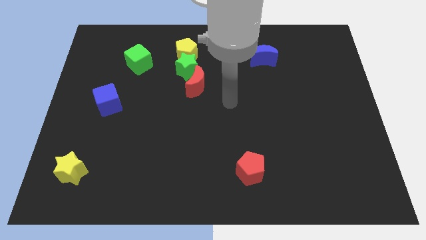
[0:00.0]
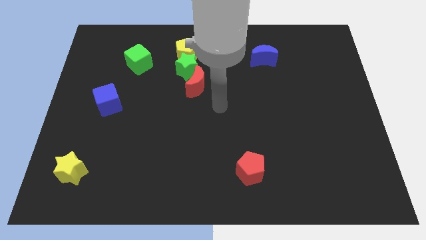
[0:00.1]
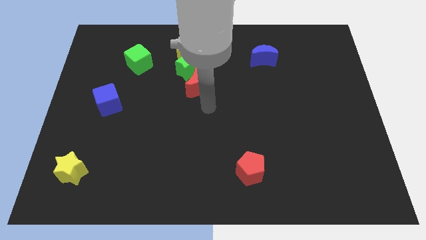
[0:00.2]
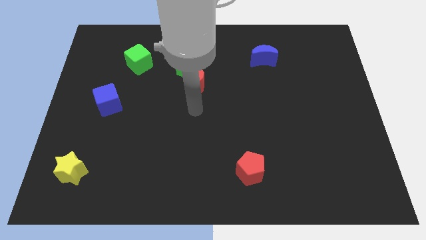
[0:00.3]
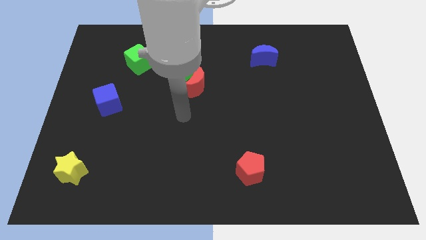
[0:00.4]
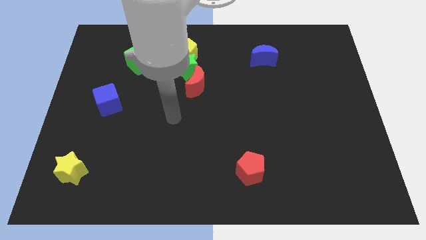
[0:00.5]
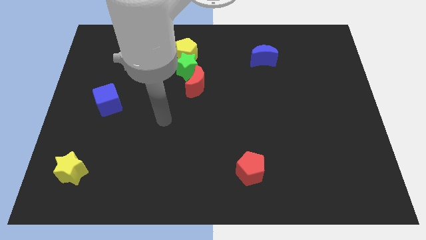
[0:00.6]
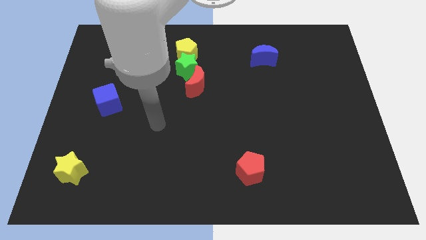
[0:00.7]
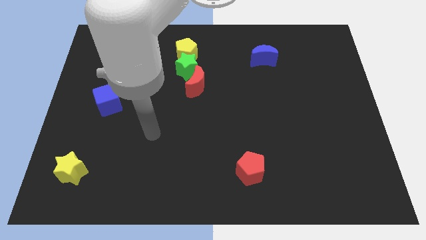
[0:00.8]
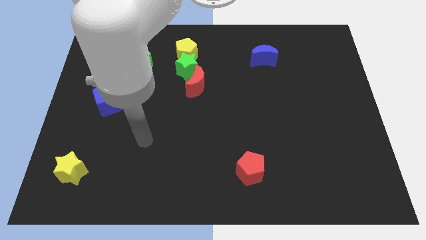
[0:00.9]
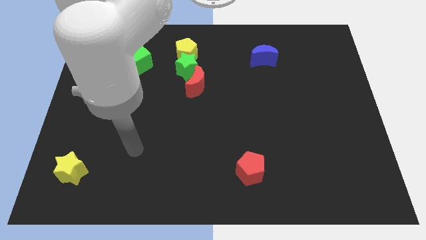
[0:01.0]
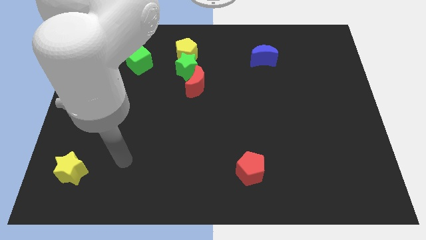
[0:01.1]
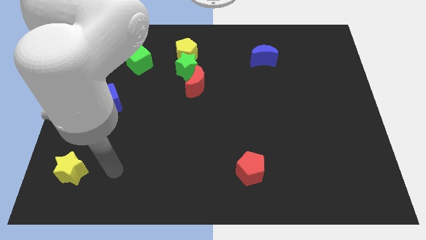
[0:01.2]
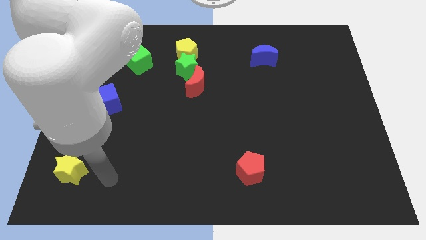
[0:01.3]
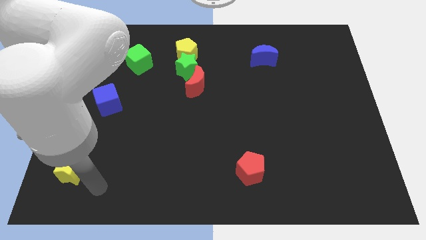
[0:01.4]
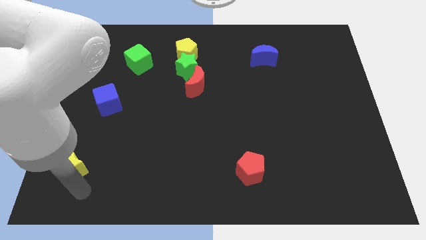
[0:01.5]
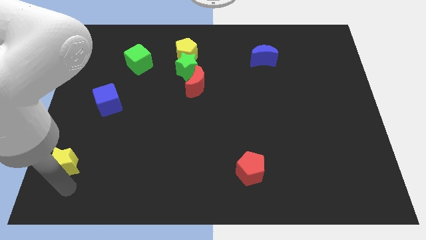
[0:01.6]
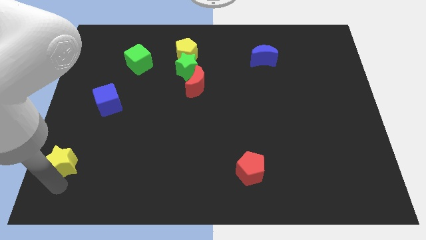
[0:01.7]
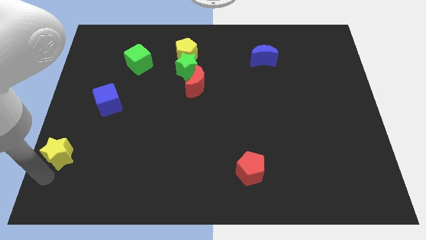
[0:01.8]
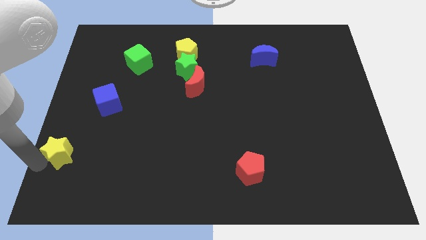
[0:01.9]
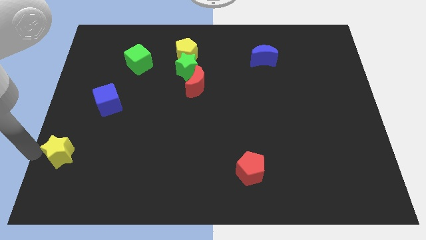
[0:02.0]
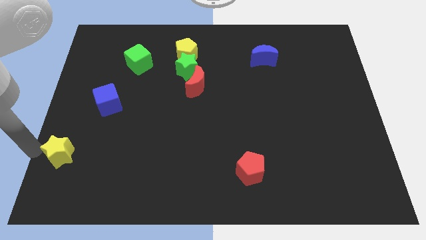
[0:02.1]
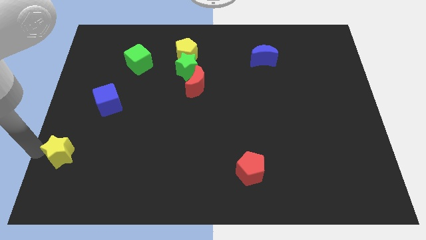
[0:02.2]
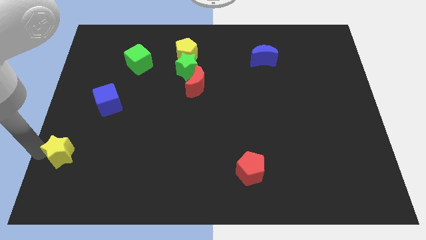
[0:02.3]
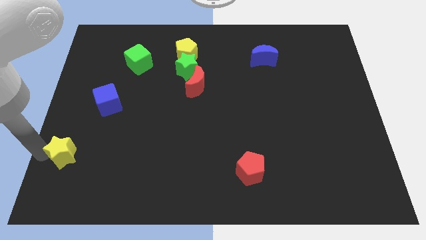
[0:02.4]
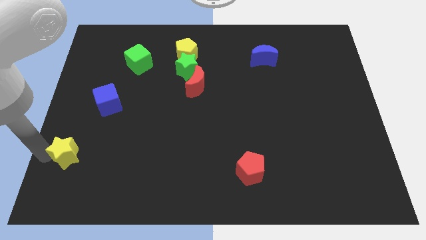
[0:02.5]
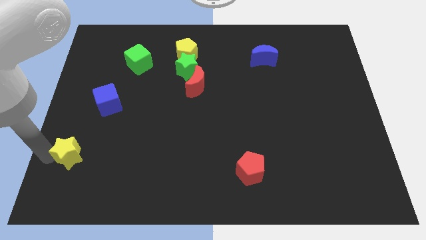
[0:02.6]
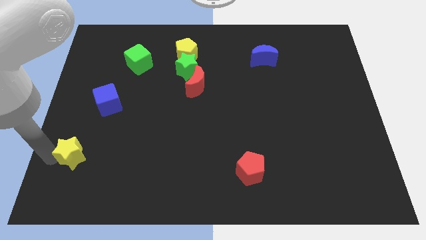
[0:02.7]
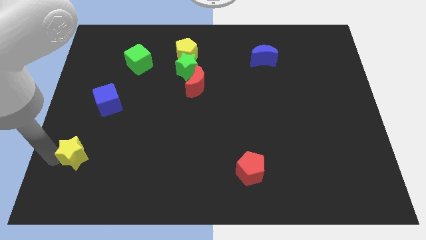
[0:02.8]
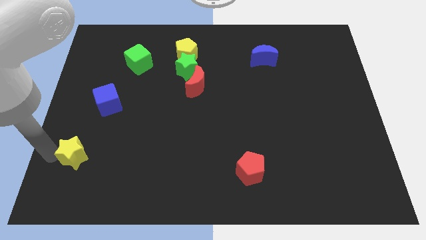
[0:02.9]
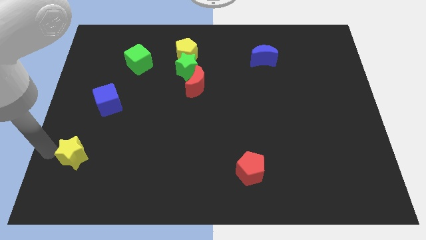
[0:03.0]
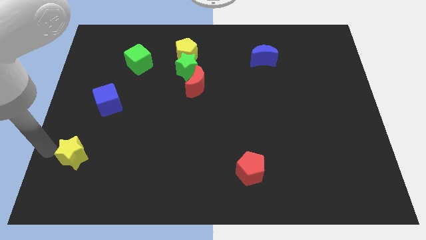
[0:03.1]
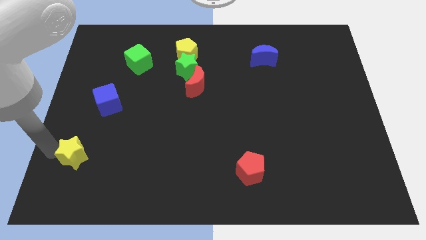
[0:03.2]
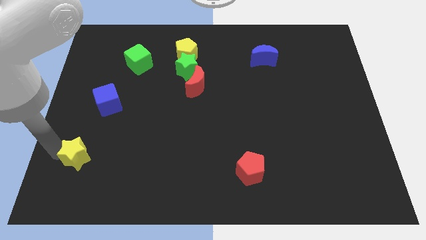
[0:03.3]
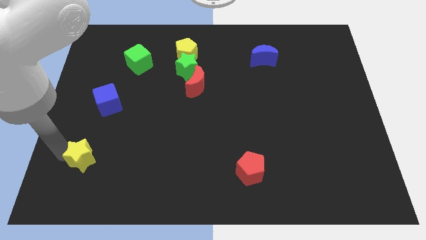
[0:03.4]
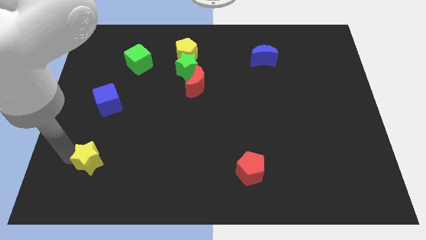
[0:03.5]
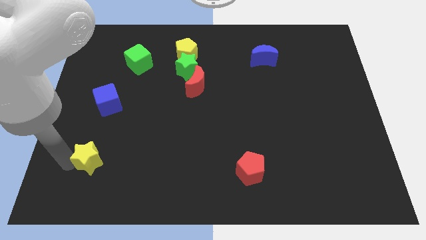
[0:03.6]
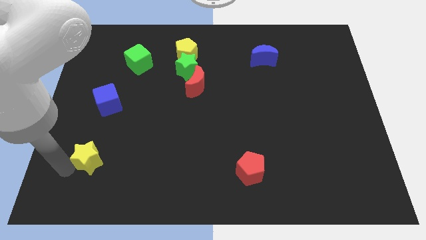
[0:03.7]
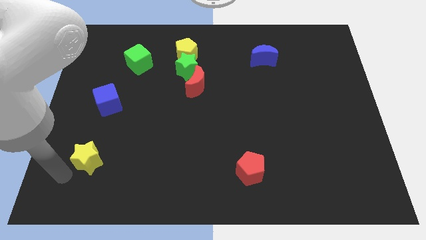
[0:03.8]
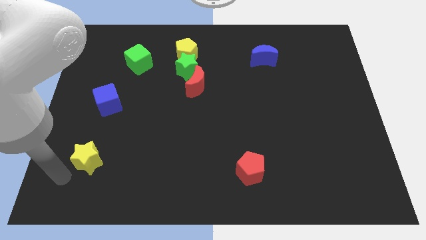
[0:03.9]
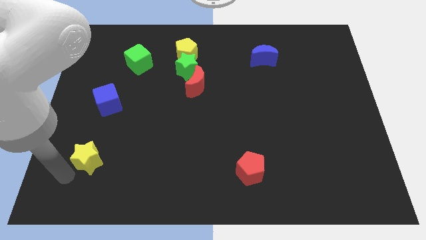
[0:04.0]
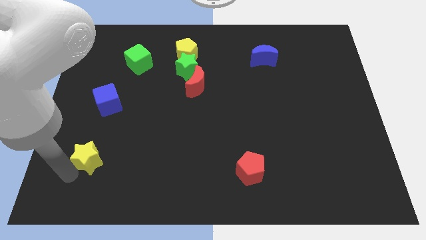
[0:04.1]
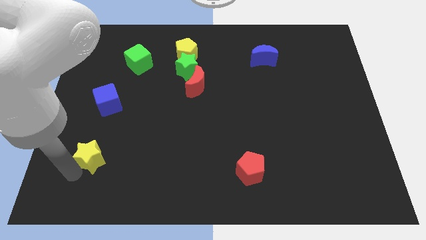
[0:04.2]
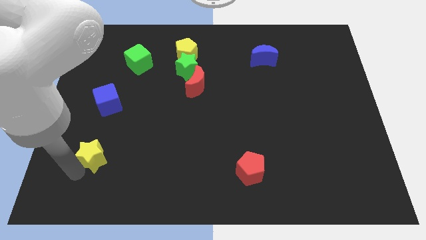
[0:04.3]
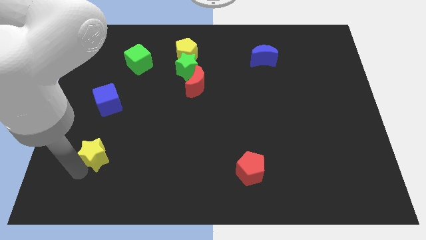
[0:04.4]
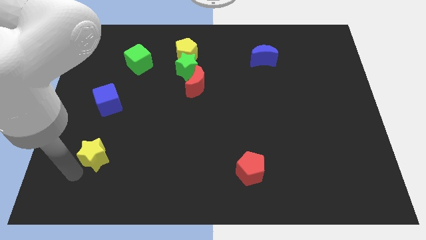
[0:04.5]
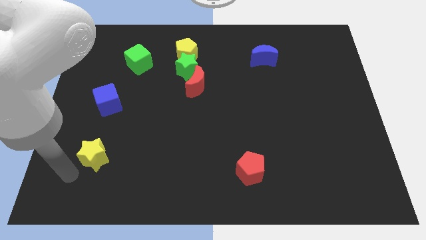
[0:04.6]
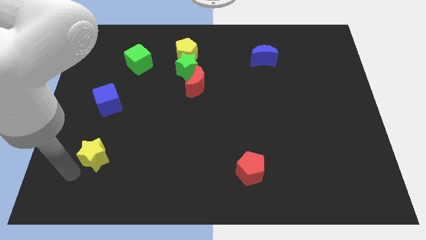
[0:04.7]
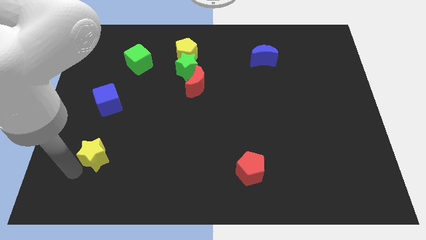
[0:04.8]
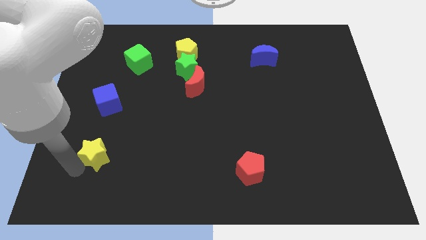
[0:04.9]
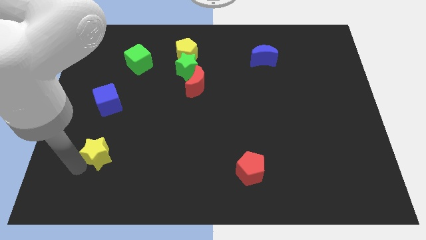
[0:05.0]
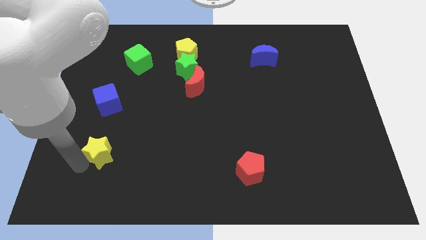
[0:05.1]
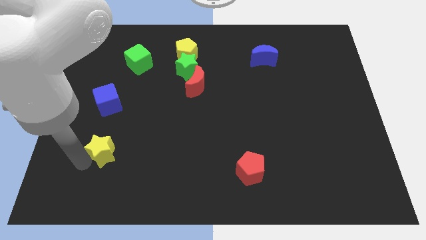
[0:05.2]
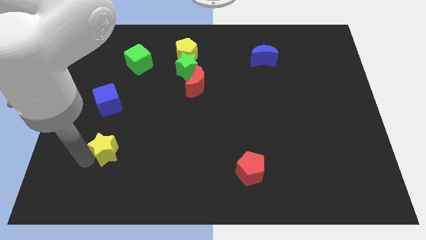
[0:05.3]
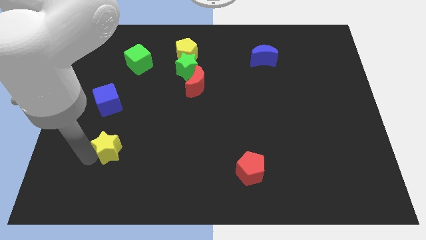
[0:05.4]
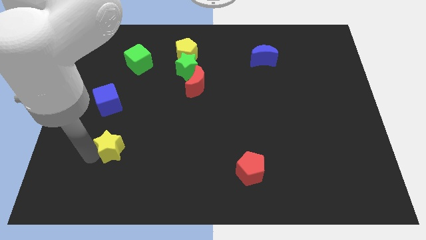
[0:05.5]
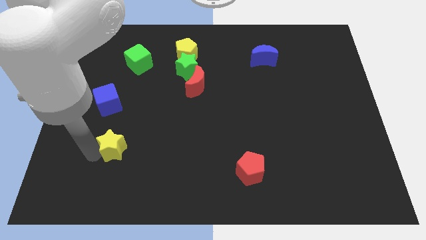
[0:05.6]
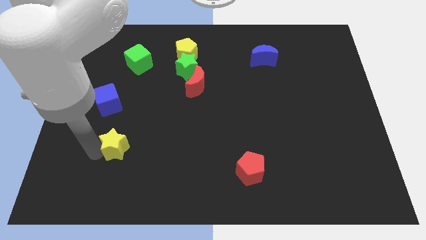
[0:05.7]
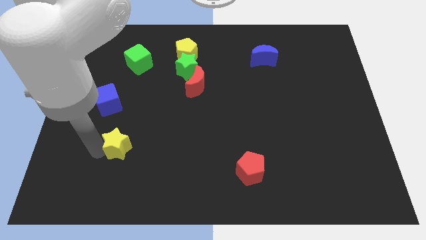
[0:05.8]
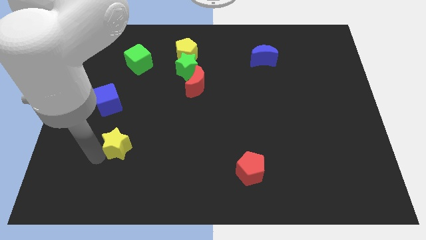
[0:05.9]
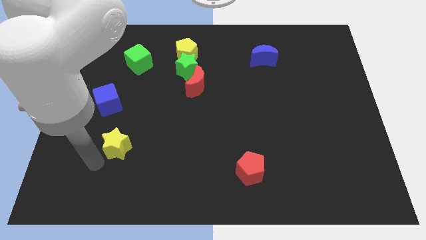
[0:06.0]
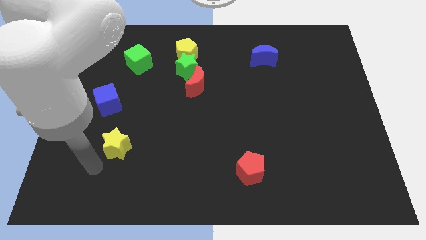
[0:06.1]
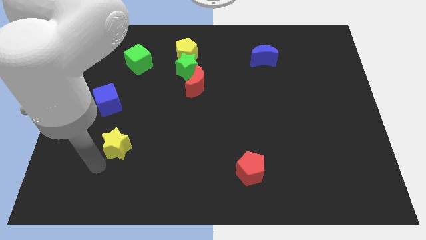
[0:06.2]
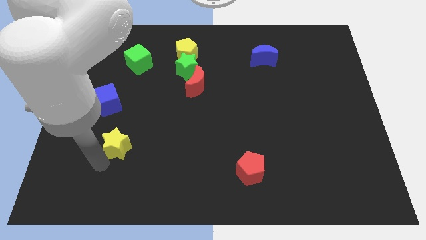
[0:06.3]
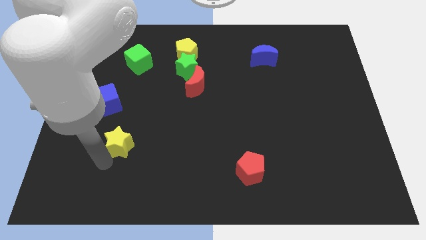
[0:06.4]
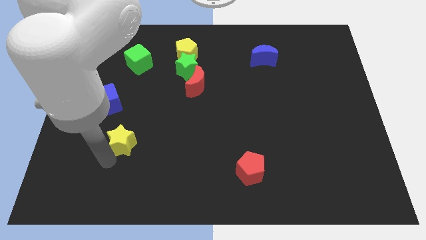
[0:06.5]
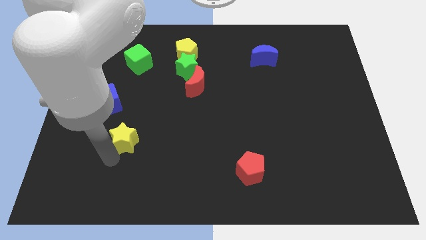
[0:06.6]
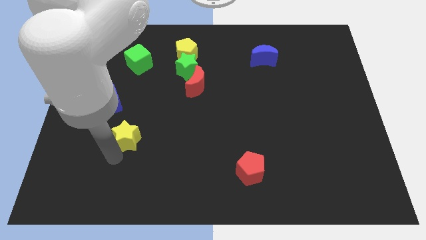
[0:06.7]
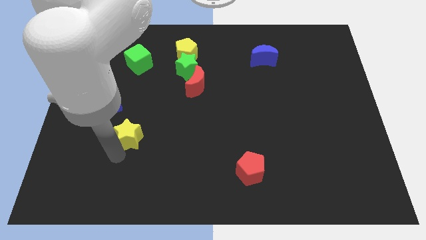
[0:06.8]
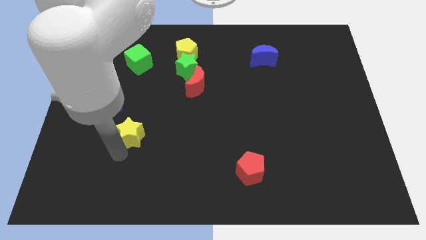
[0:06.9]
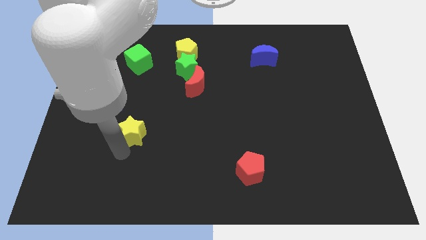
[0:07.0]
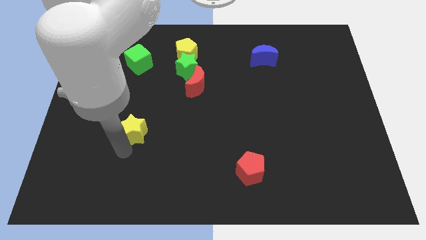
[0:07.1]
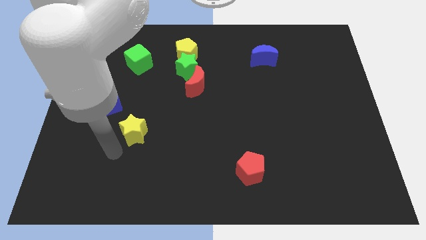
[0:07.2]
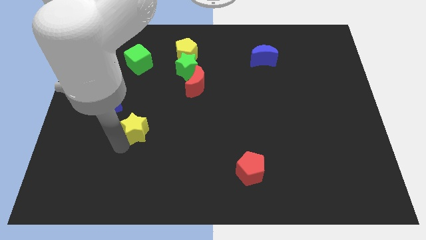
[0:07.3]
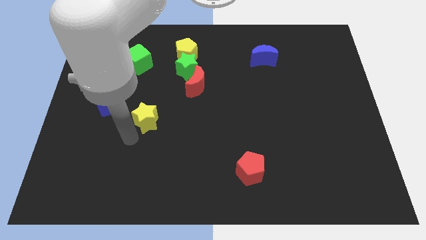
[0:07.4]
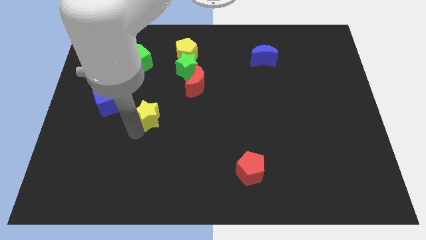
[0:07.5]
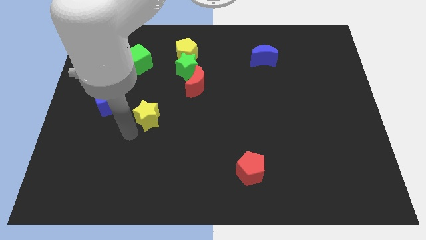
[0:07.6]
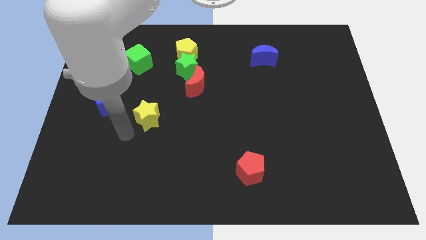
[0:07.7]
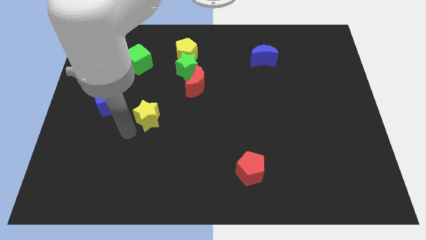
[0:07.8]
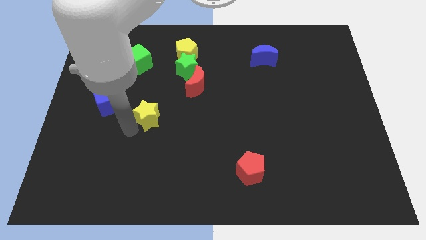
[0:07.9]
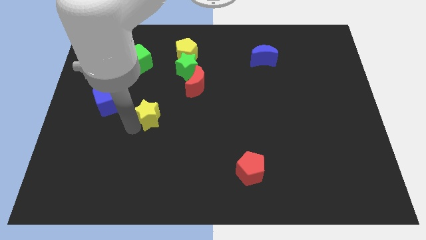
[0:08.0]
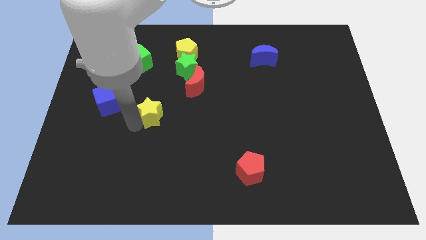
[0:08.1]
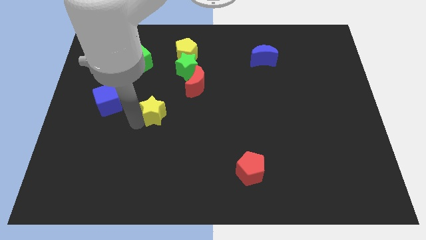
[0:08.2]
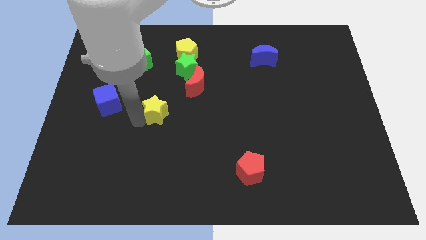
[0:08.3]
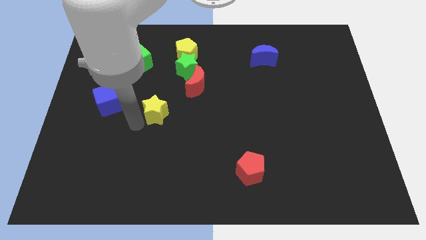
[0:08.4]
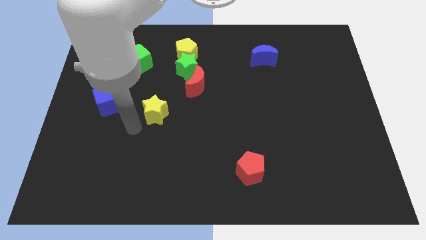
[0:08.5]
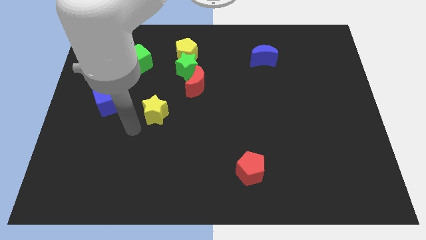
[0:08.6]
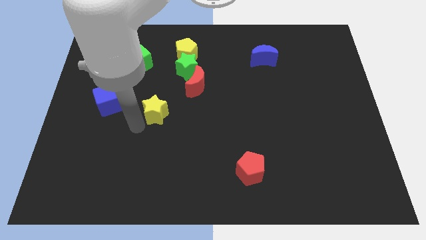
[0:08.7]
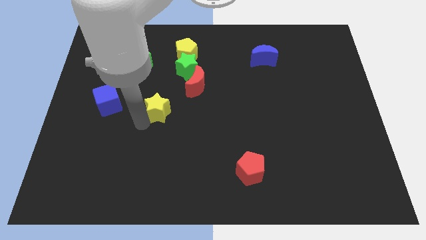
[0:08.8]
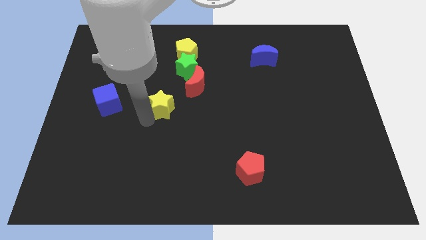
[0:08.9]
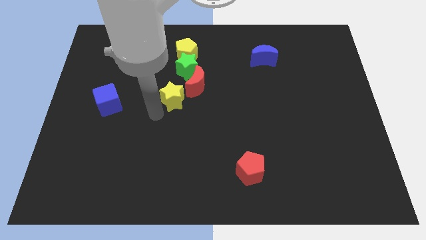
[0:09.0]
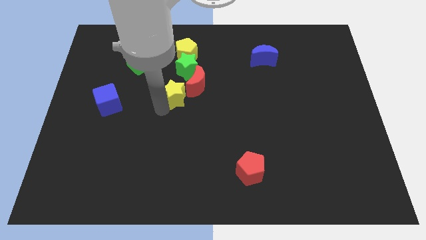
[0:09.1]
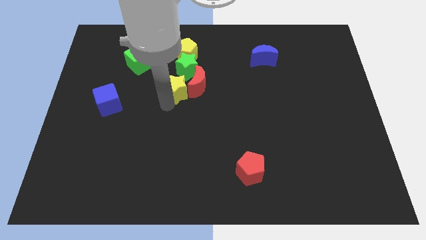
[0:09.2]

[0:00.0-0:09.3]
slide the yellow star close to the red moon
